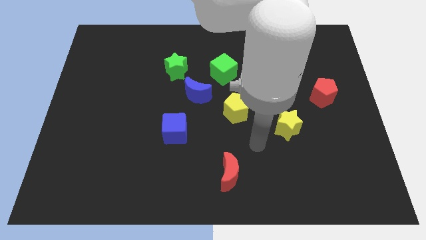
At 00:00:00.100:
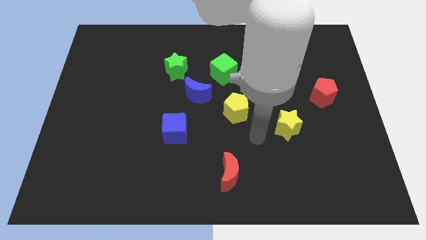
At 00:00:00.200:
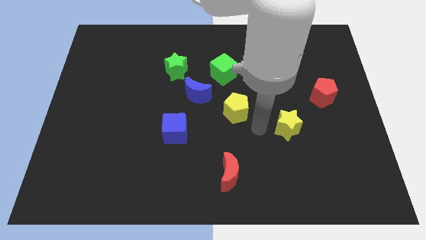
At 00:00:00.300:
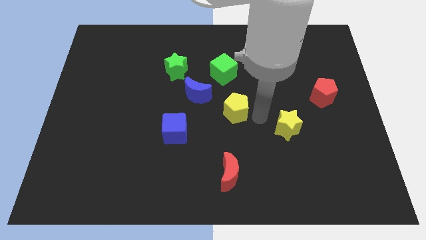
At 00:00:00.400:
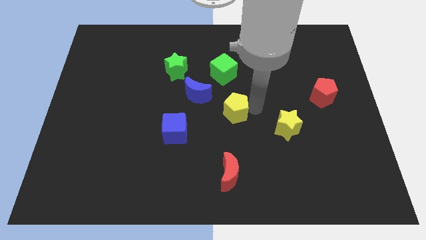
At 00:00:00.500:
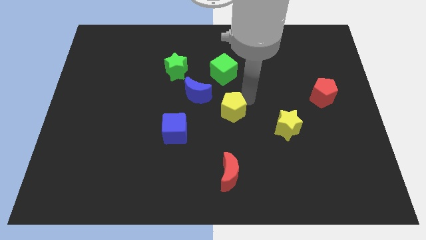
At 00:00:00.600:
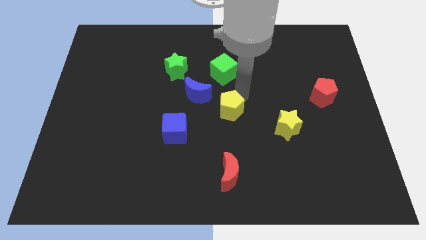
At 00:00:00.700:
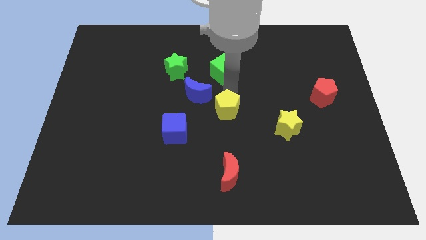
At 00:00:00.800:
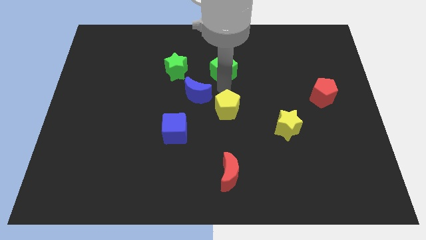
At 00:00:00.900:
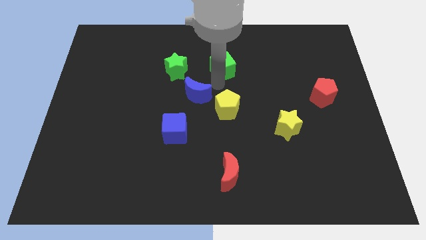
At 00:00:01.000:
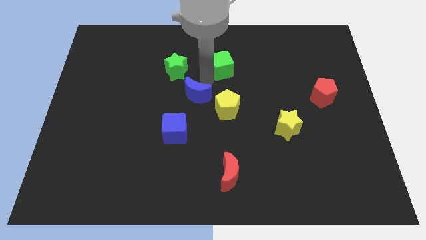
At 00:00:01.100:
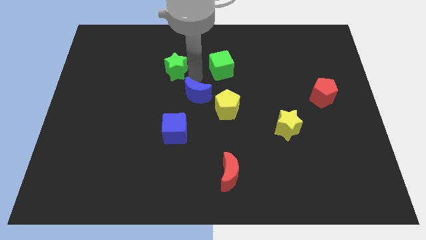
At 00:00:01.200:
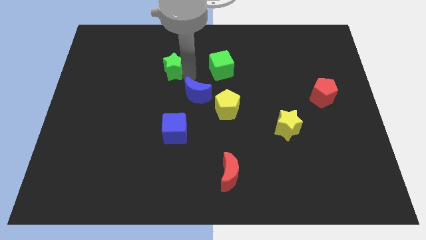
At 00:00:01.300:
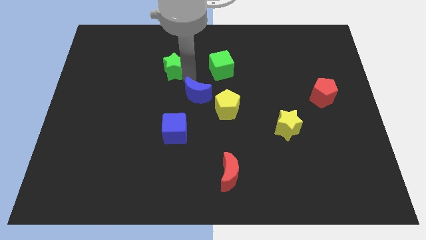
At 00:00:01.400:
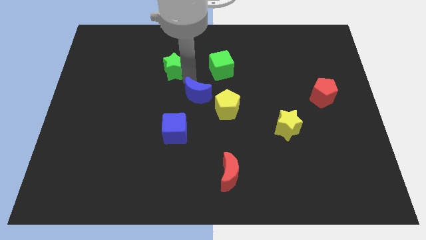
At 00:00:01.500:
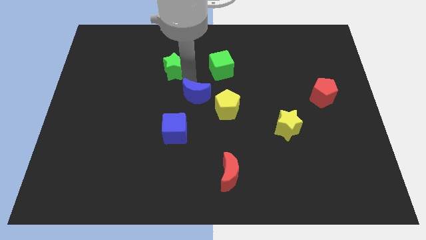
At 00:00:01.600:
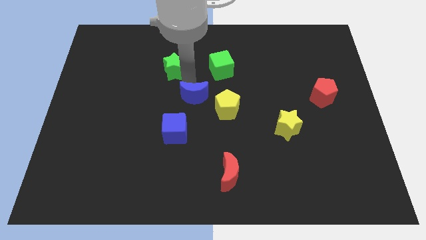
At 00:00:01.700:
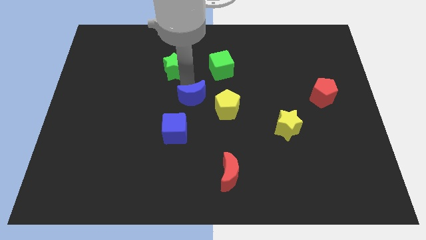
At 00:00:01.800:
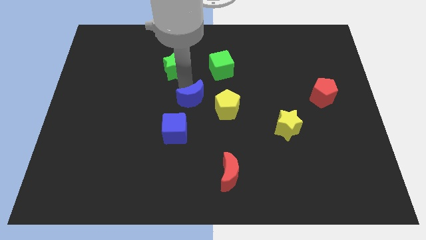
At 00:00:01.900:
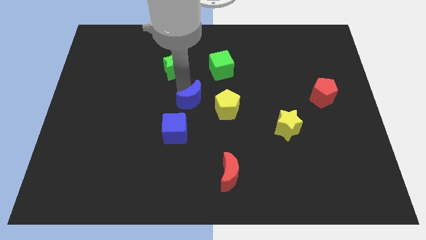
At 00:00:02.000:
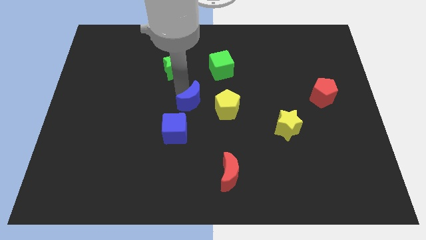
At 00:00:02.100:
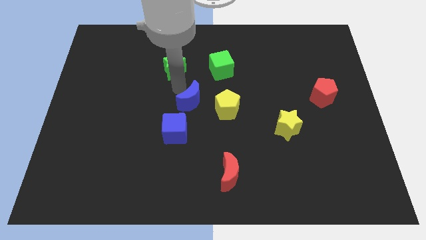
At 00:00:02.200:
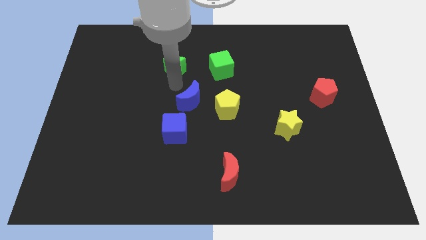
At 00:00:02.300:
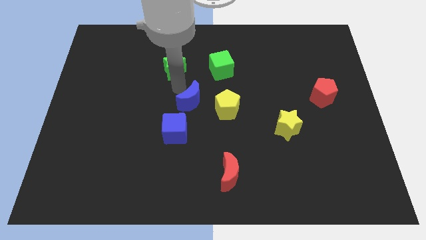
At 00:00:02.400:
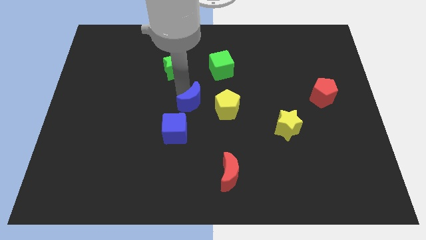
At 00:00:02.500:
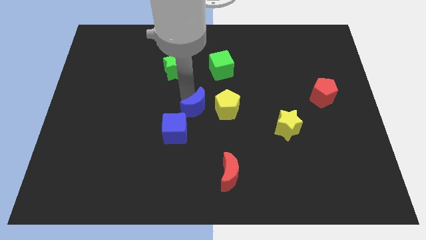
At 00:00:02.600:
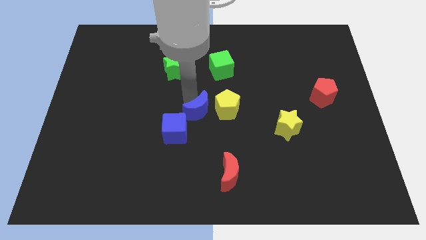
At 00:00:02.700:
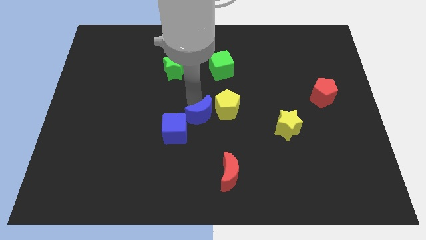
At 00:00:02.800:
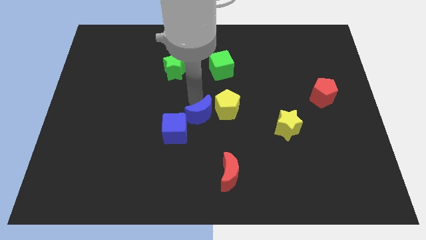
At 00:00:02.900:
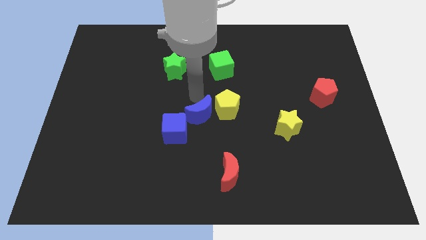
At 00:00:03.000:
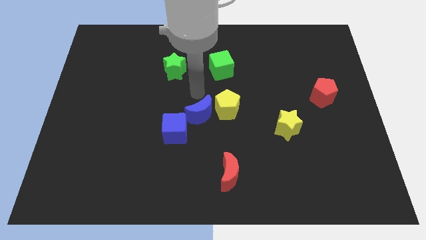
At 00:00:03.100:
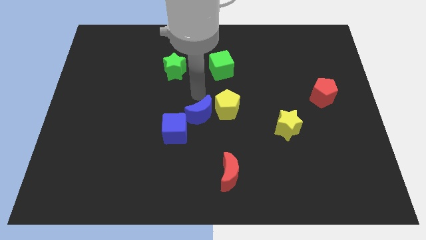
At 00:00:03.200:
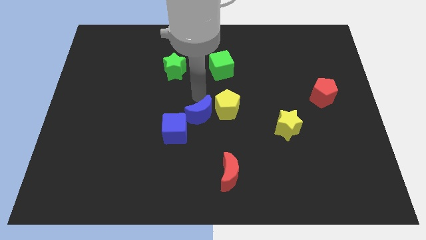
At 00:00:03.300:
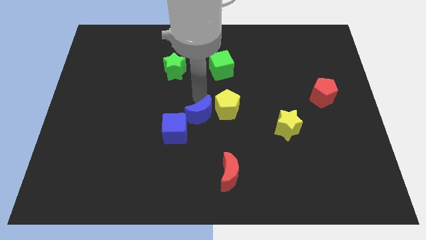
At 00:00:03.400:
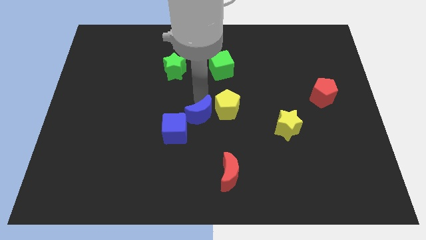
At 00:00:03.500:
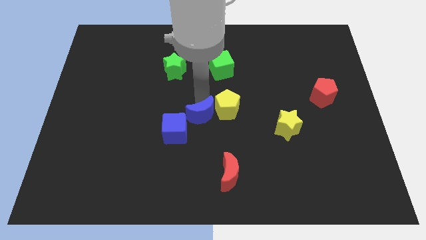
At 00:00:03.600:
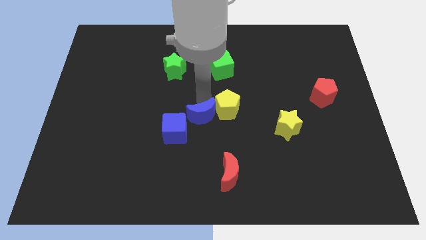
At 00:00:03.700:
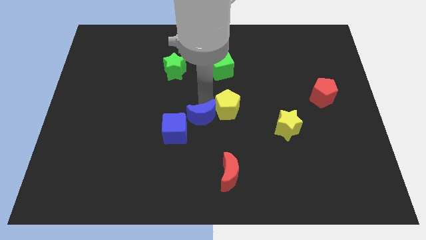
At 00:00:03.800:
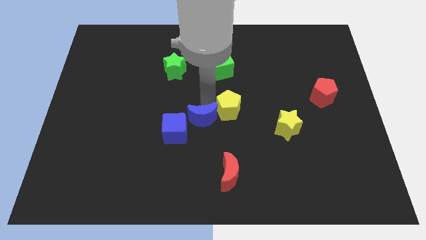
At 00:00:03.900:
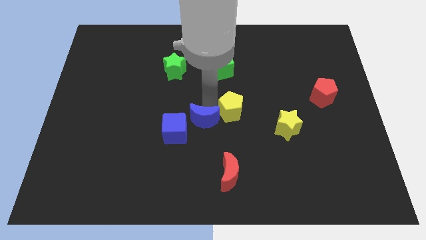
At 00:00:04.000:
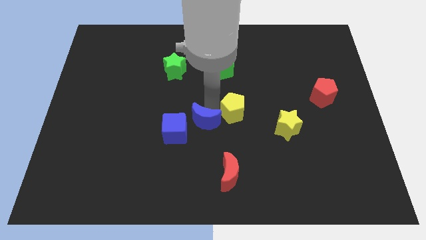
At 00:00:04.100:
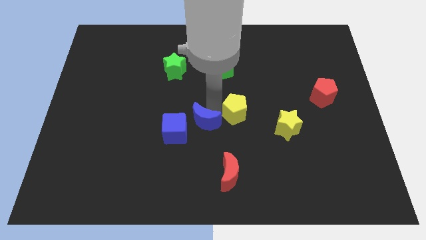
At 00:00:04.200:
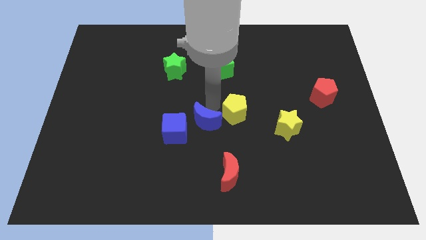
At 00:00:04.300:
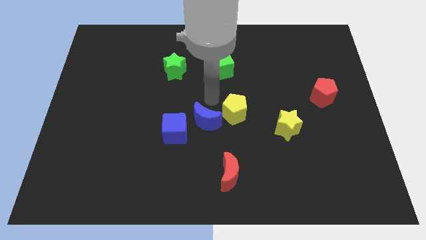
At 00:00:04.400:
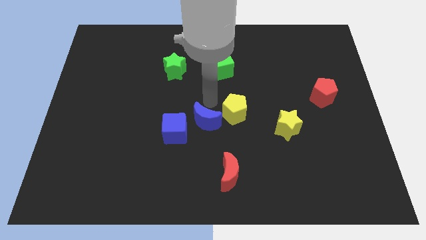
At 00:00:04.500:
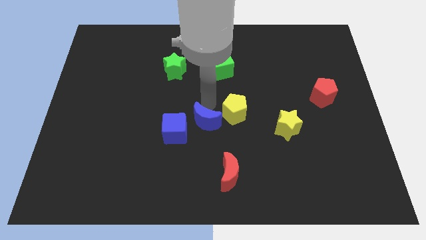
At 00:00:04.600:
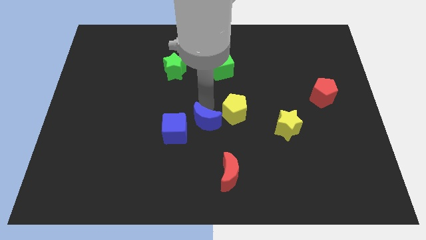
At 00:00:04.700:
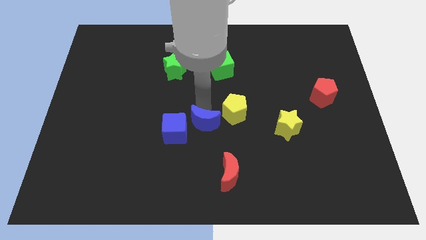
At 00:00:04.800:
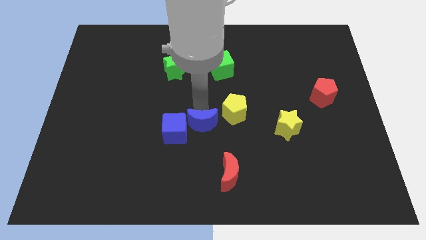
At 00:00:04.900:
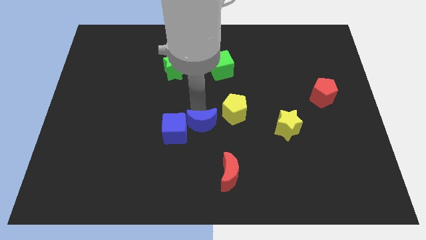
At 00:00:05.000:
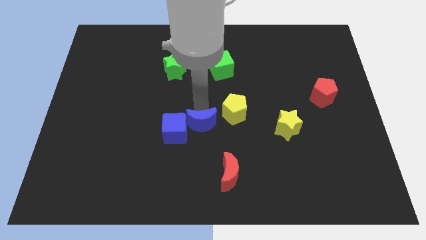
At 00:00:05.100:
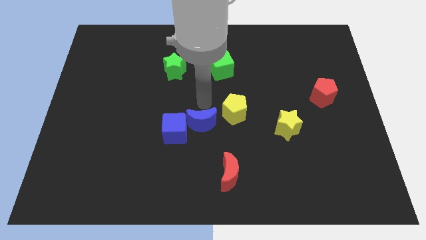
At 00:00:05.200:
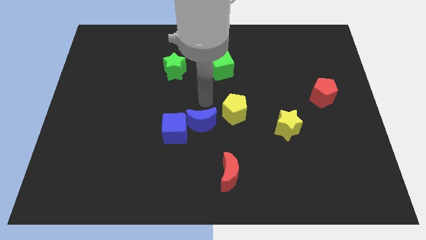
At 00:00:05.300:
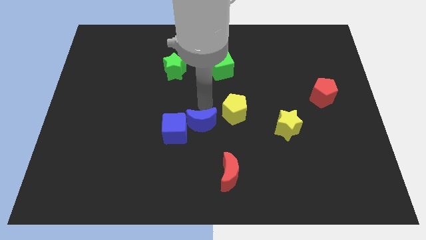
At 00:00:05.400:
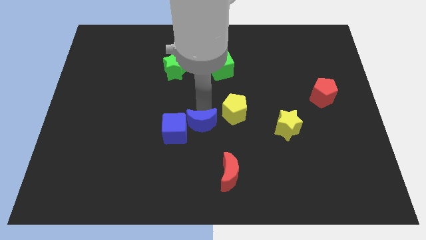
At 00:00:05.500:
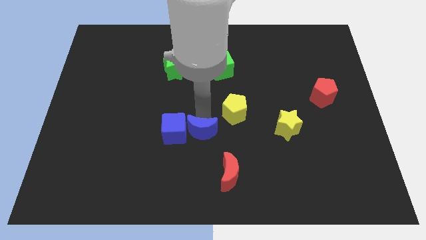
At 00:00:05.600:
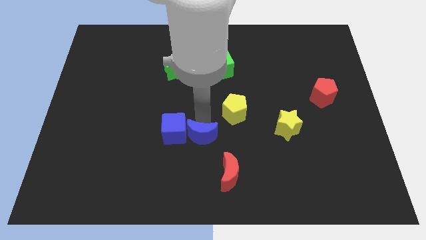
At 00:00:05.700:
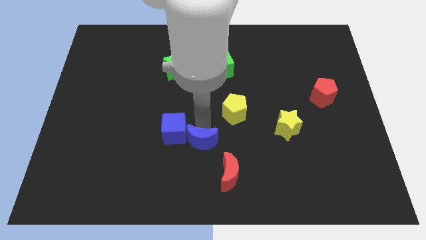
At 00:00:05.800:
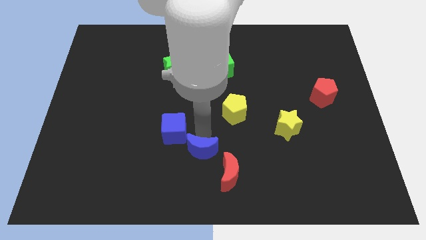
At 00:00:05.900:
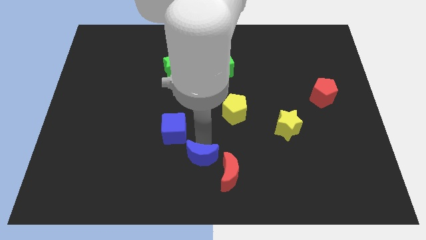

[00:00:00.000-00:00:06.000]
put the blue moon to the bottom side
